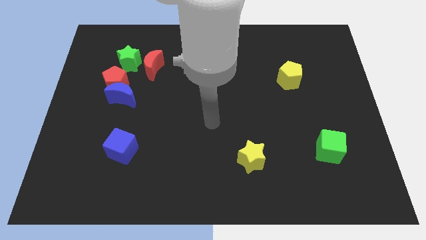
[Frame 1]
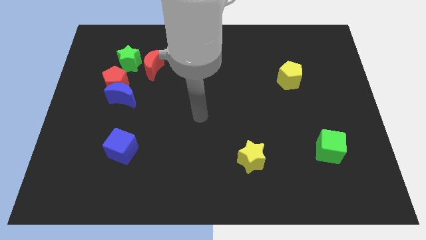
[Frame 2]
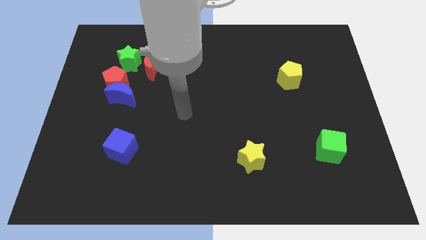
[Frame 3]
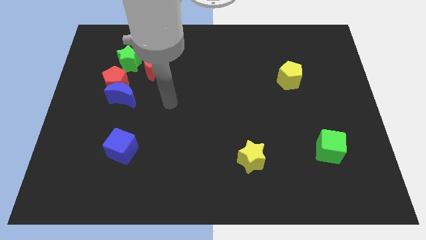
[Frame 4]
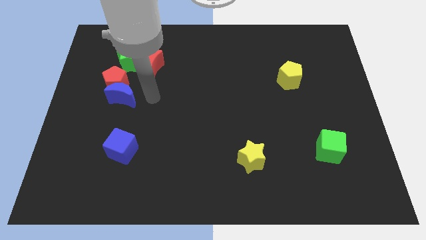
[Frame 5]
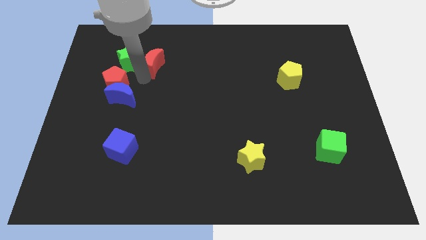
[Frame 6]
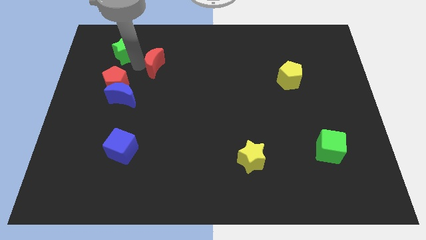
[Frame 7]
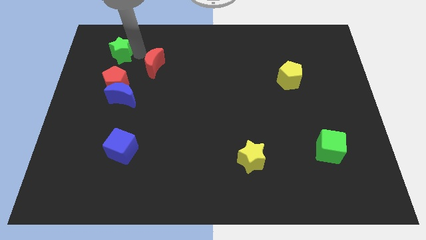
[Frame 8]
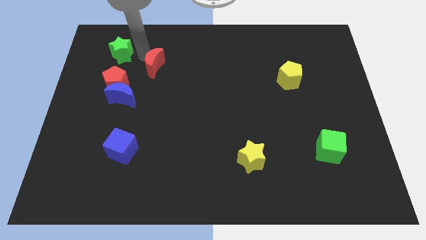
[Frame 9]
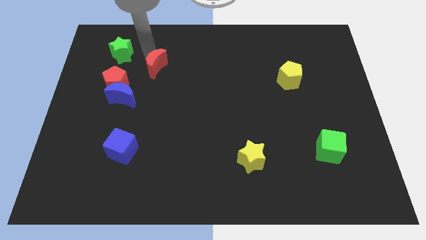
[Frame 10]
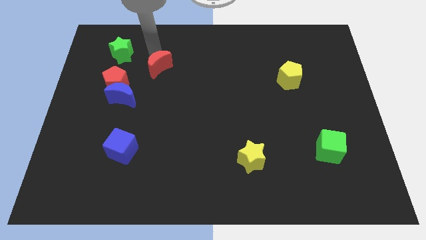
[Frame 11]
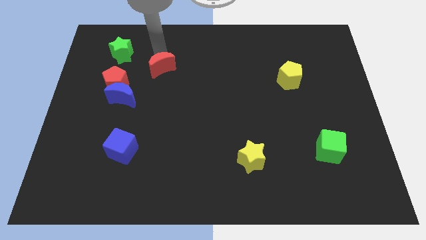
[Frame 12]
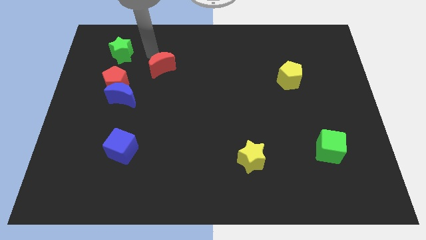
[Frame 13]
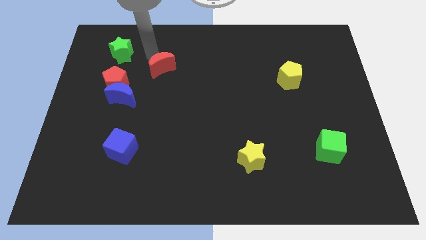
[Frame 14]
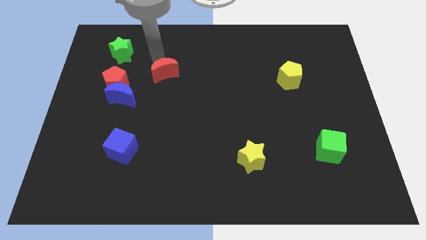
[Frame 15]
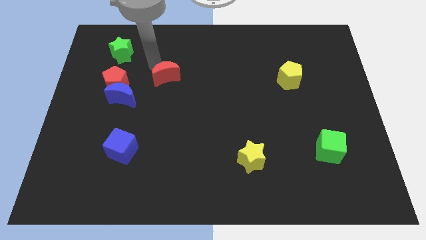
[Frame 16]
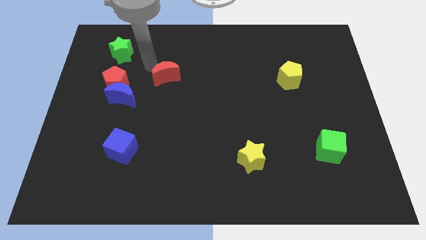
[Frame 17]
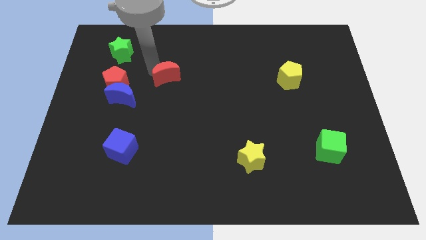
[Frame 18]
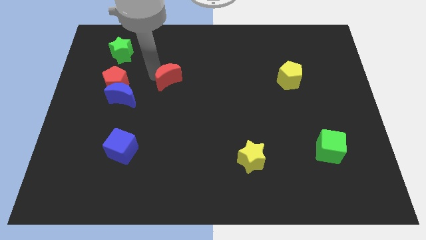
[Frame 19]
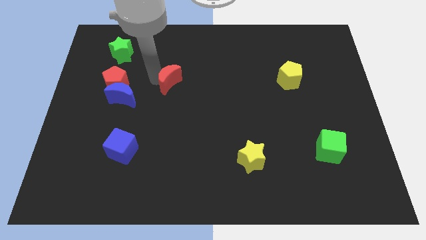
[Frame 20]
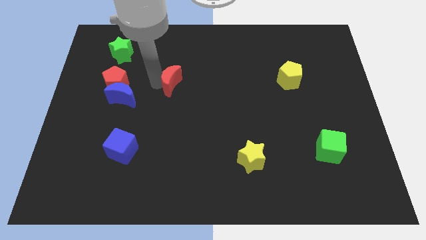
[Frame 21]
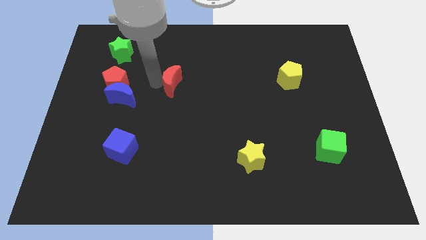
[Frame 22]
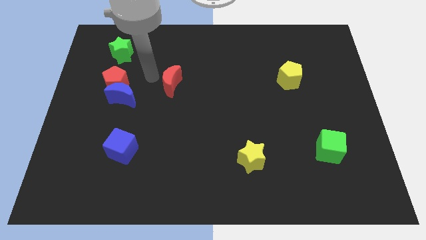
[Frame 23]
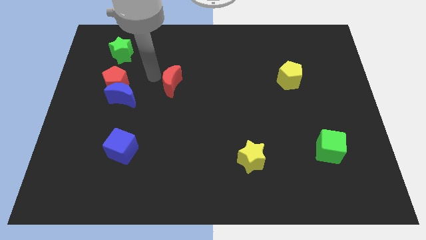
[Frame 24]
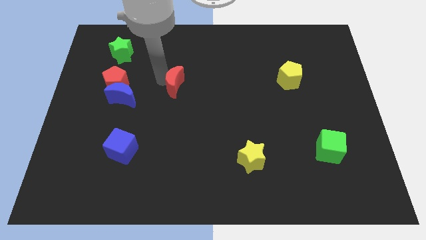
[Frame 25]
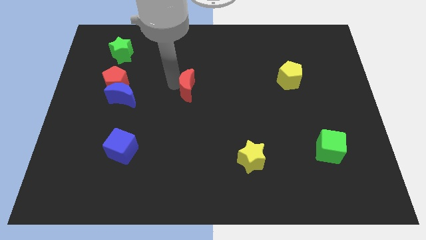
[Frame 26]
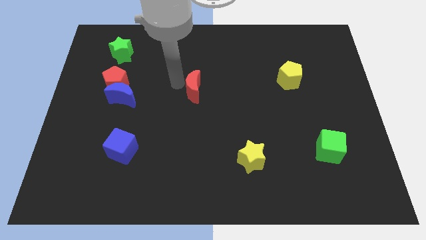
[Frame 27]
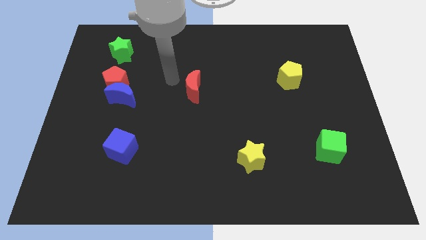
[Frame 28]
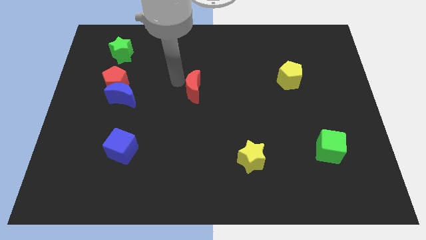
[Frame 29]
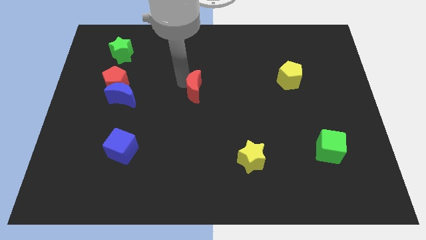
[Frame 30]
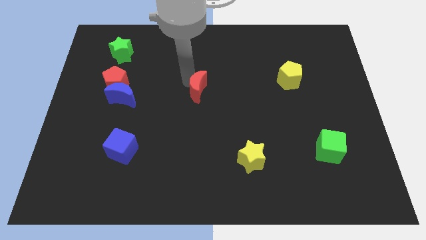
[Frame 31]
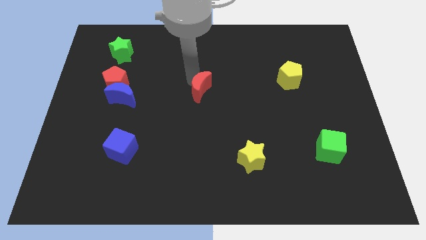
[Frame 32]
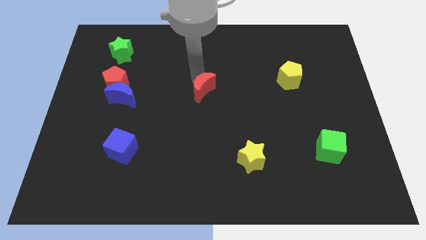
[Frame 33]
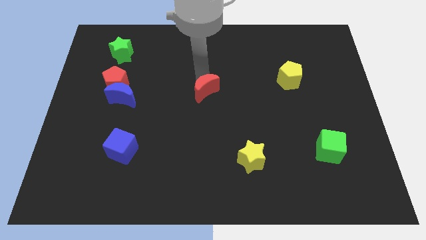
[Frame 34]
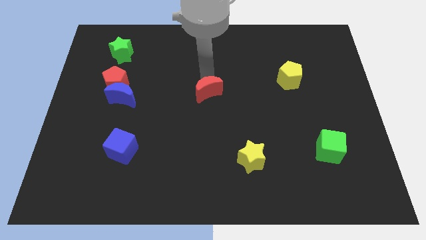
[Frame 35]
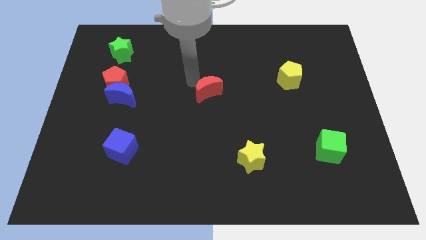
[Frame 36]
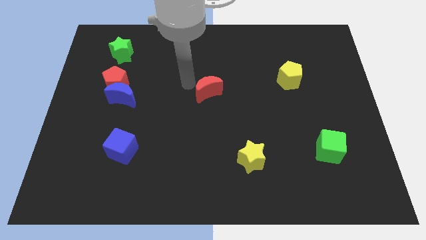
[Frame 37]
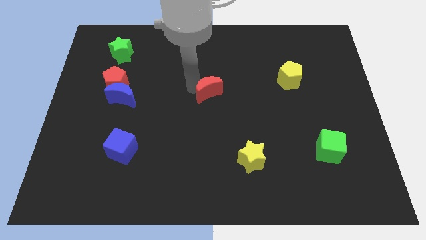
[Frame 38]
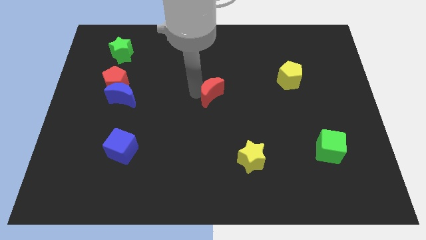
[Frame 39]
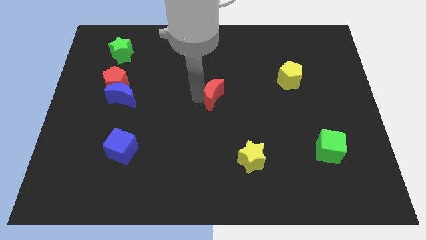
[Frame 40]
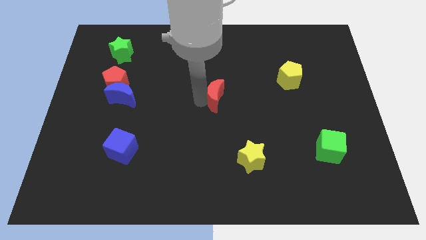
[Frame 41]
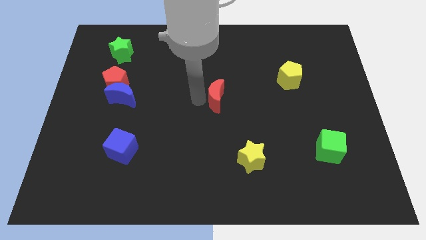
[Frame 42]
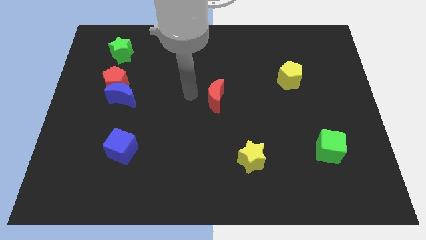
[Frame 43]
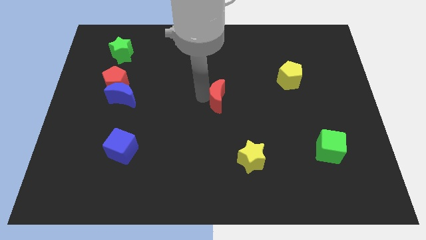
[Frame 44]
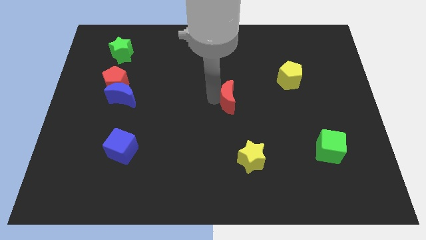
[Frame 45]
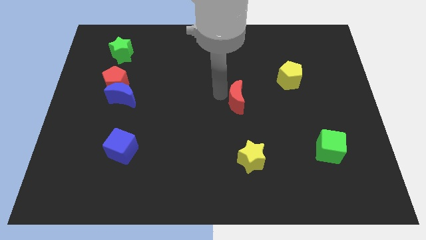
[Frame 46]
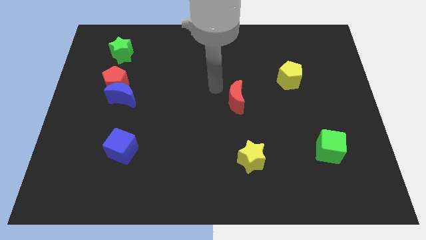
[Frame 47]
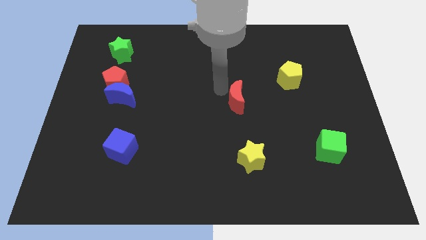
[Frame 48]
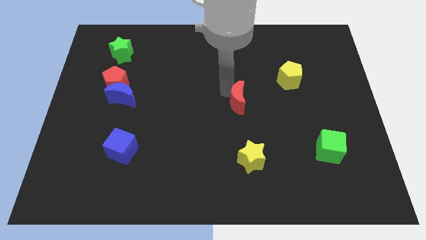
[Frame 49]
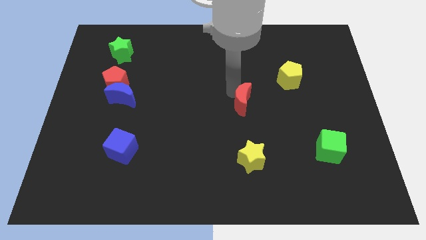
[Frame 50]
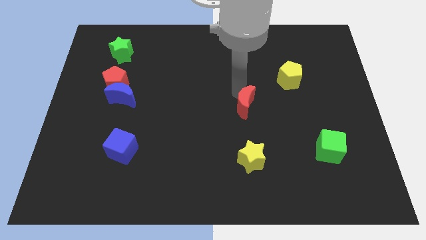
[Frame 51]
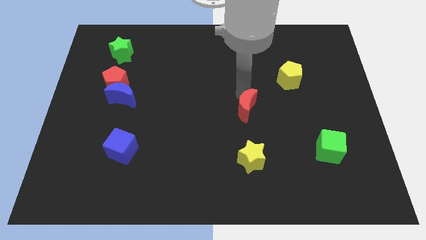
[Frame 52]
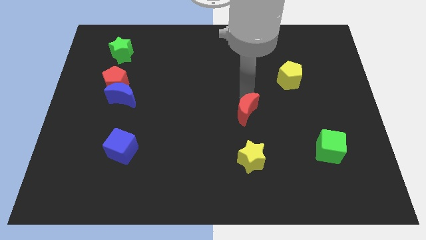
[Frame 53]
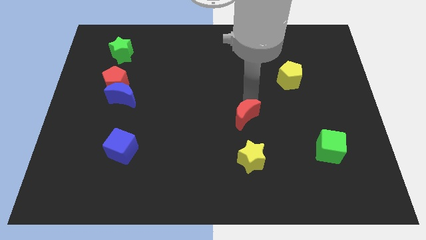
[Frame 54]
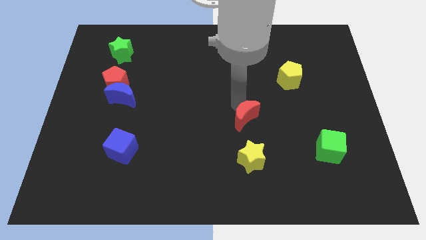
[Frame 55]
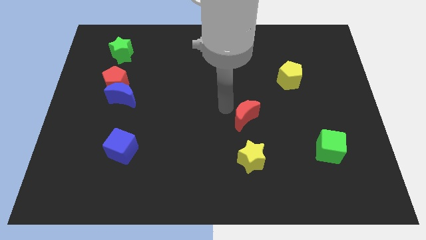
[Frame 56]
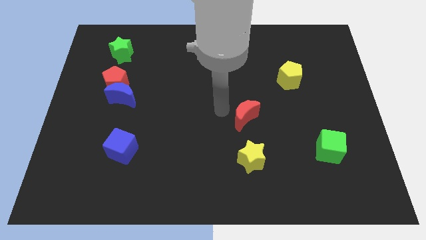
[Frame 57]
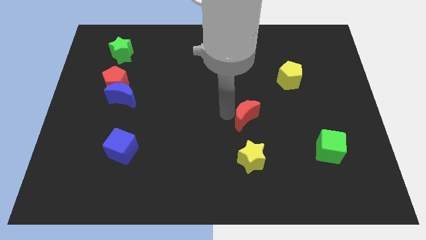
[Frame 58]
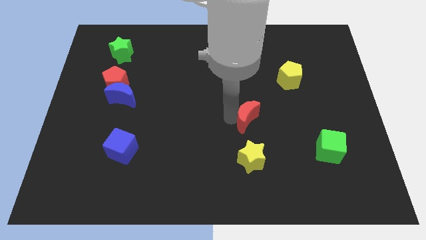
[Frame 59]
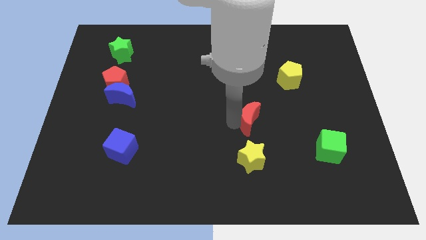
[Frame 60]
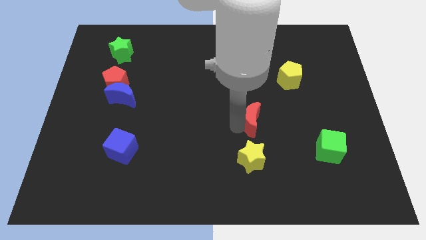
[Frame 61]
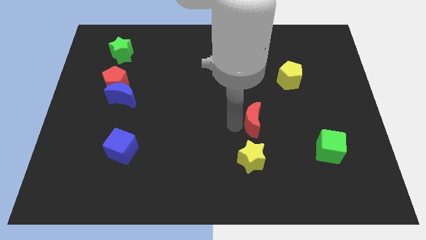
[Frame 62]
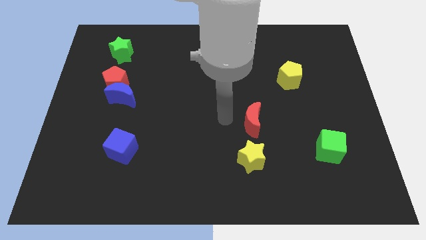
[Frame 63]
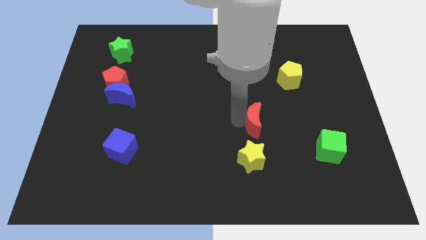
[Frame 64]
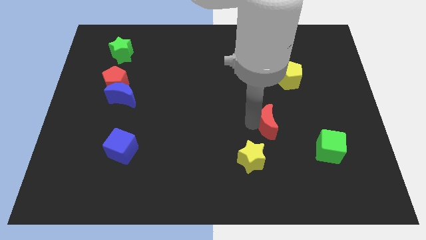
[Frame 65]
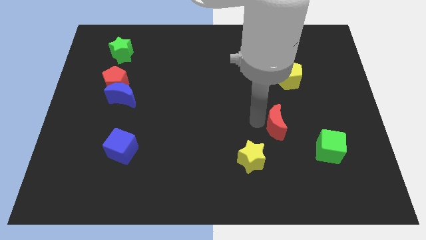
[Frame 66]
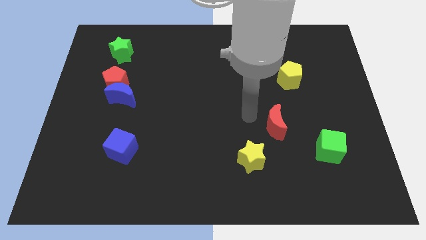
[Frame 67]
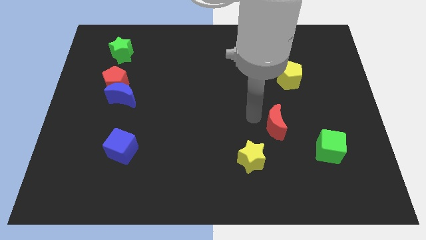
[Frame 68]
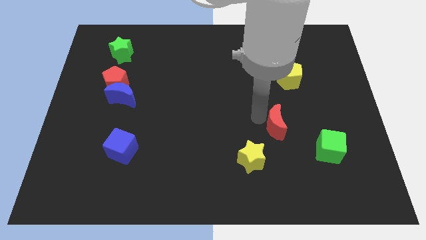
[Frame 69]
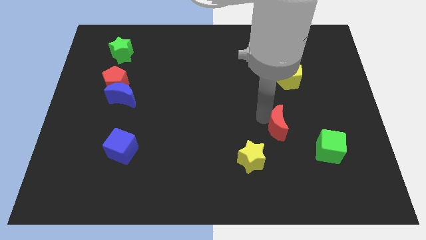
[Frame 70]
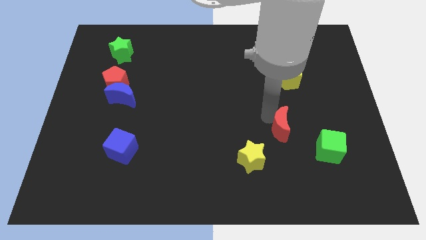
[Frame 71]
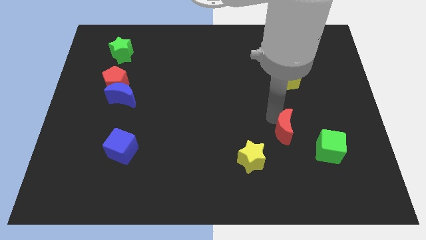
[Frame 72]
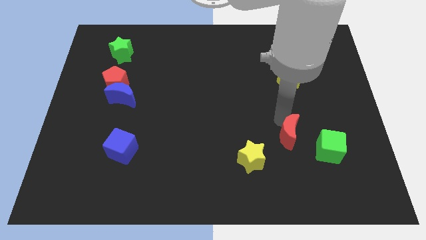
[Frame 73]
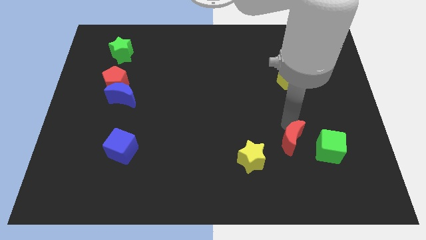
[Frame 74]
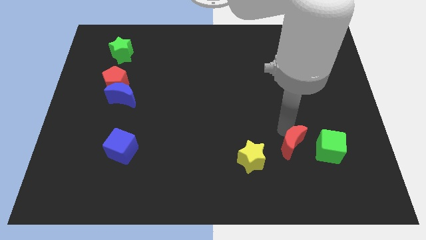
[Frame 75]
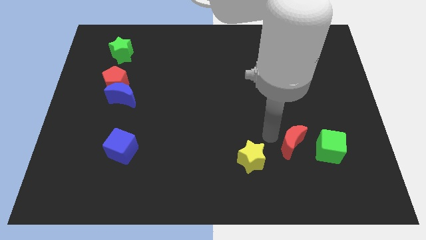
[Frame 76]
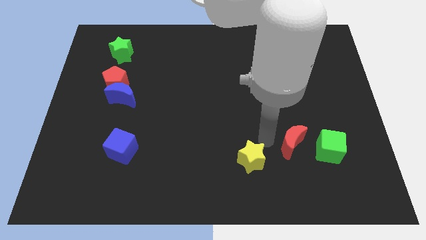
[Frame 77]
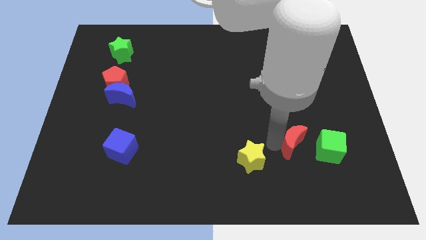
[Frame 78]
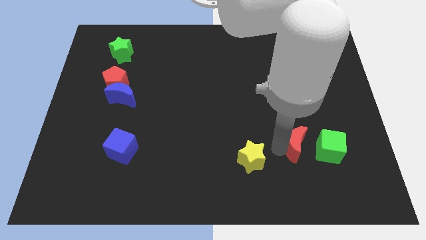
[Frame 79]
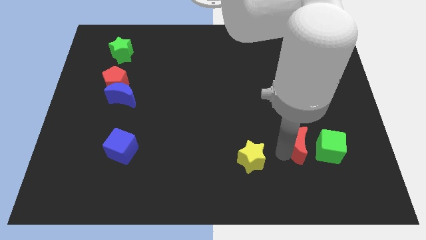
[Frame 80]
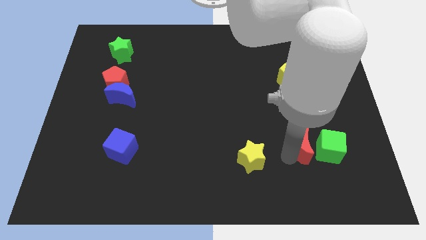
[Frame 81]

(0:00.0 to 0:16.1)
slide the red moon next to the green cube
